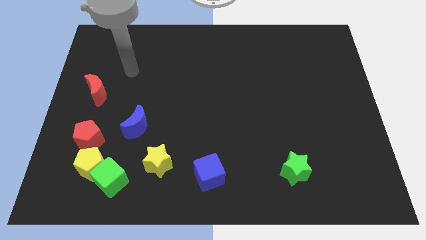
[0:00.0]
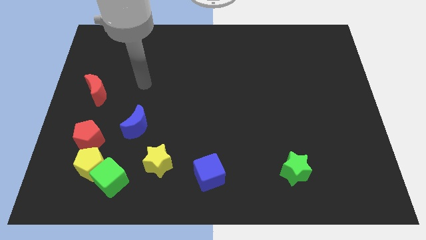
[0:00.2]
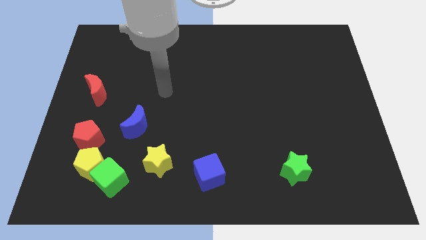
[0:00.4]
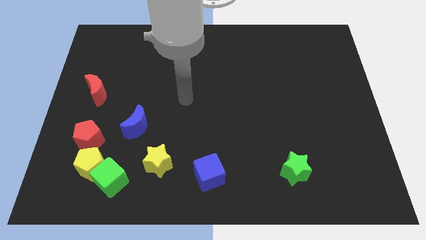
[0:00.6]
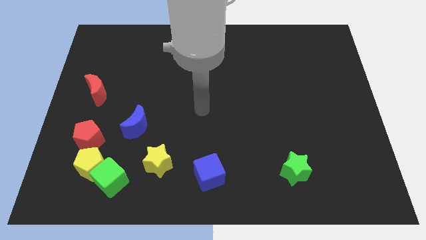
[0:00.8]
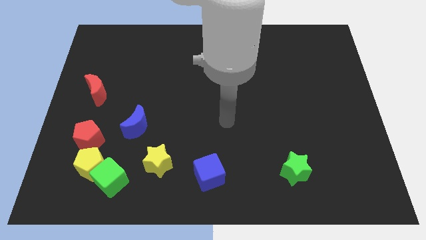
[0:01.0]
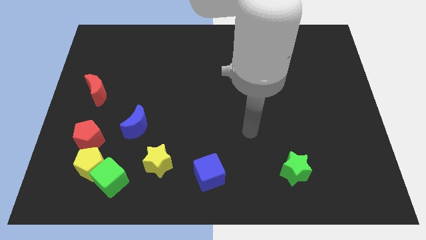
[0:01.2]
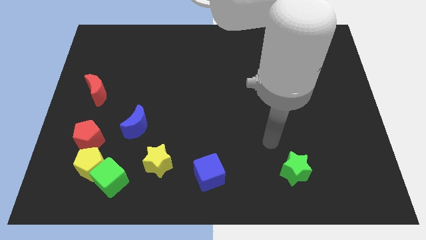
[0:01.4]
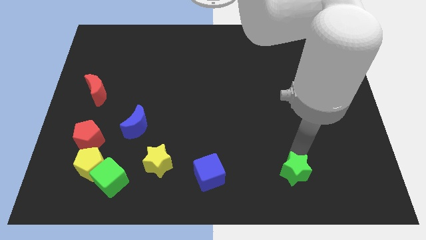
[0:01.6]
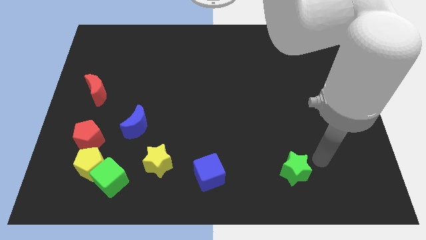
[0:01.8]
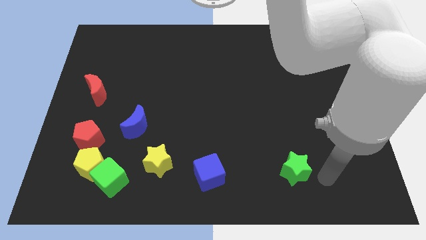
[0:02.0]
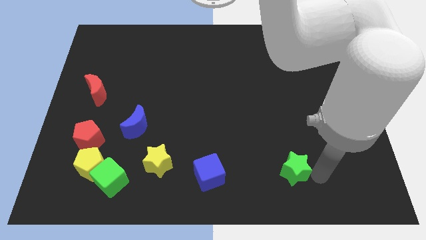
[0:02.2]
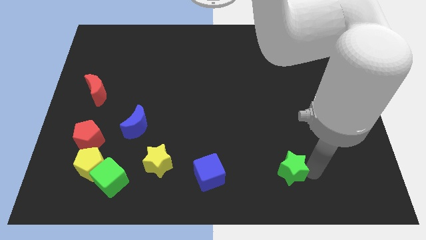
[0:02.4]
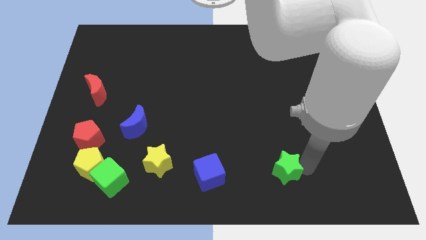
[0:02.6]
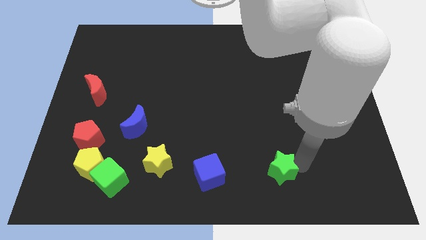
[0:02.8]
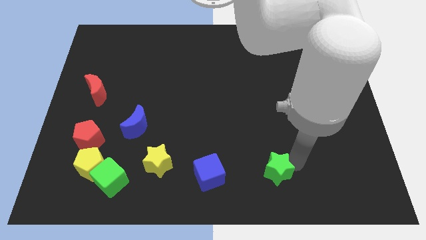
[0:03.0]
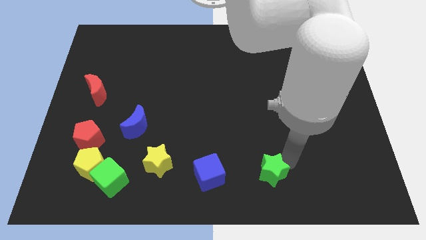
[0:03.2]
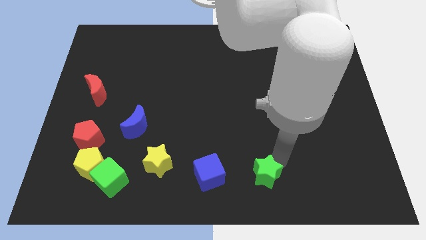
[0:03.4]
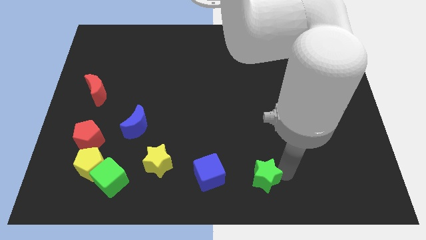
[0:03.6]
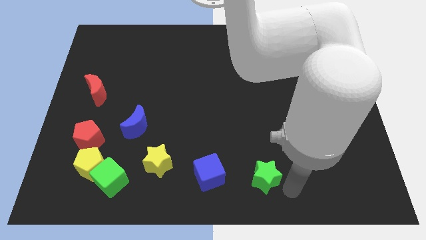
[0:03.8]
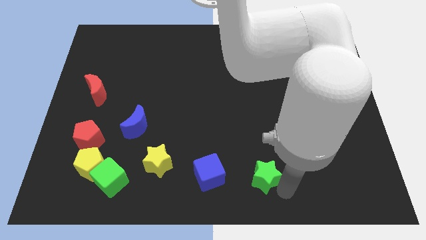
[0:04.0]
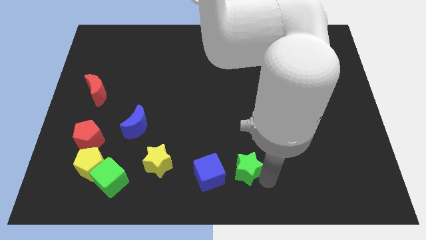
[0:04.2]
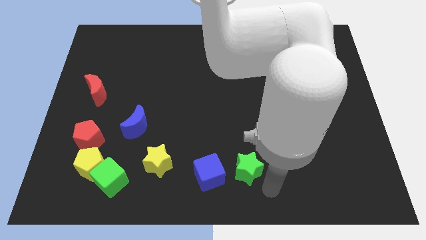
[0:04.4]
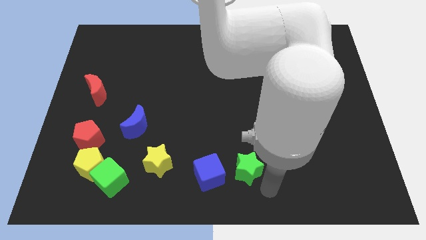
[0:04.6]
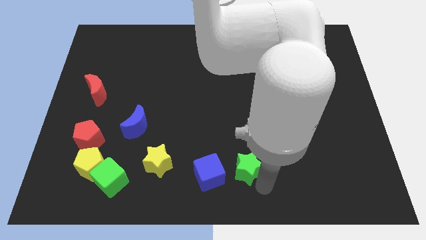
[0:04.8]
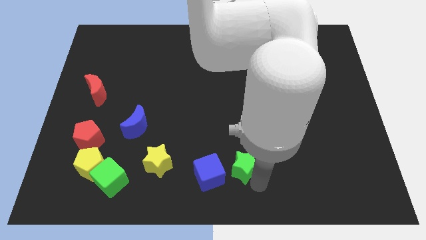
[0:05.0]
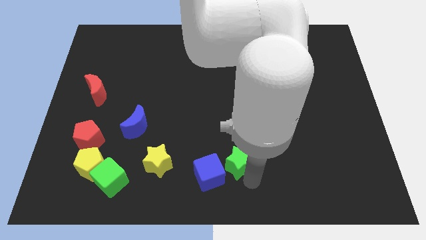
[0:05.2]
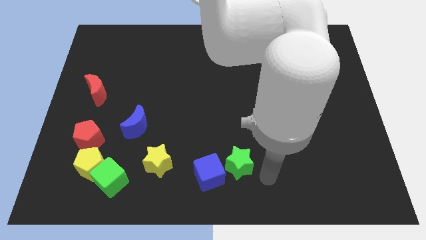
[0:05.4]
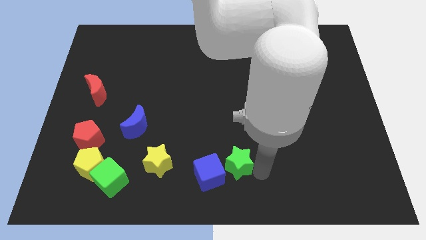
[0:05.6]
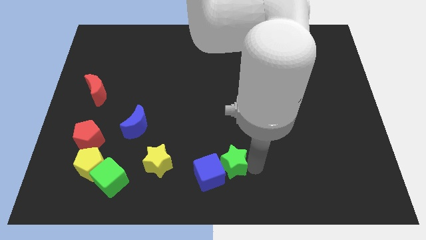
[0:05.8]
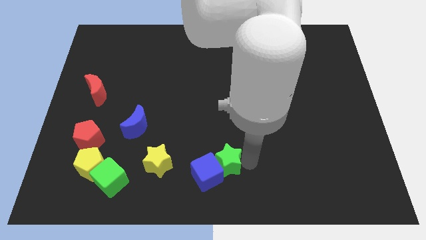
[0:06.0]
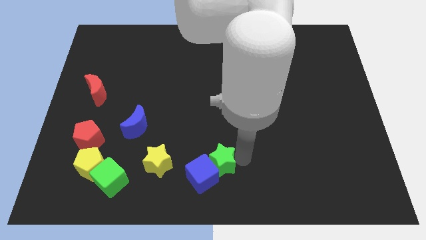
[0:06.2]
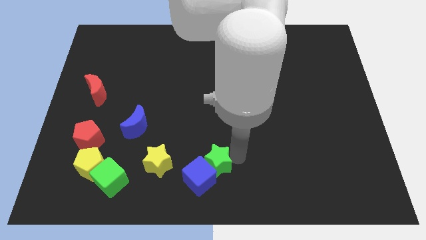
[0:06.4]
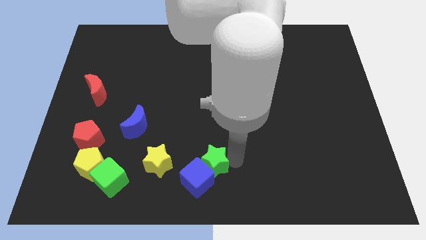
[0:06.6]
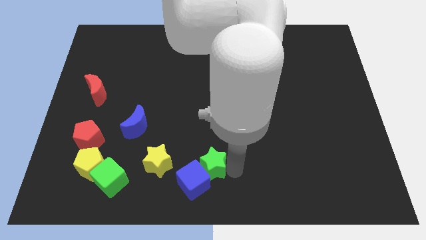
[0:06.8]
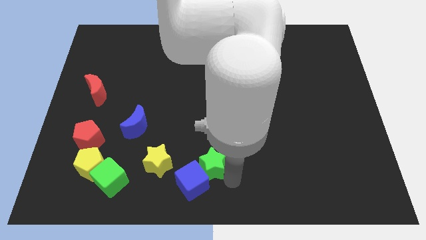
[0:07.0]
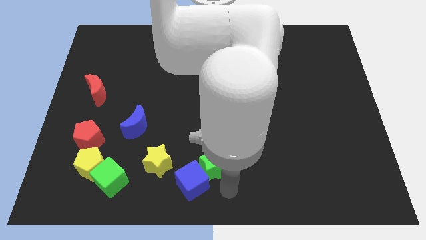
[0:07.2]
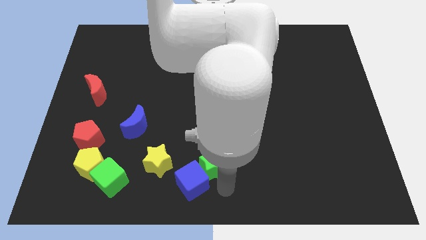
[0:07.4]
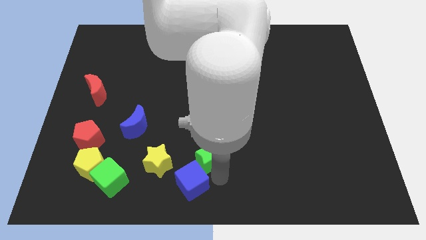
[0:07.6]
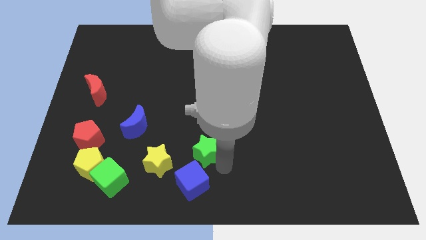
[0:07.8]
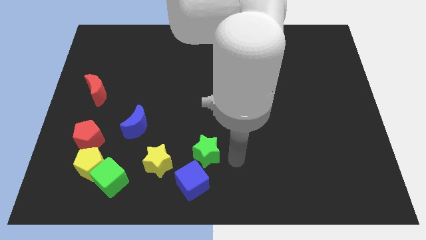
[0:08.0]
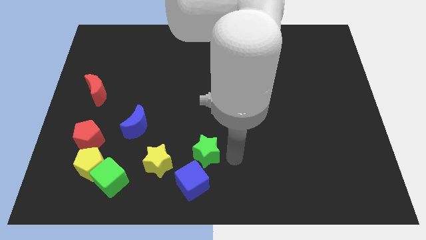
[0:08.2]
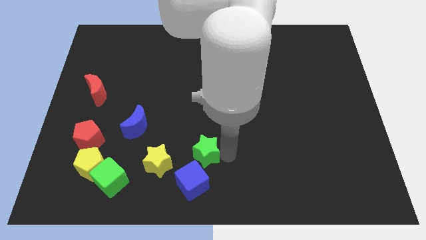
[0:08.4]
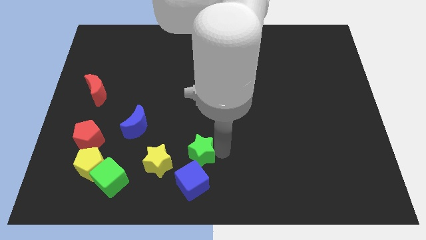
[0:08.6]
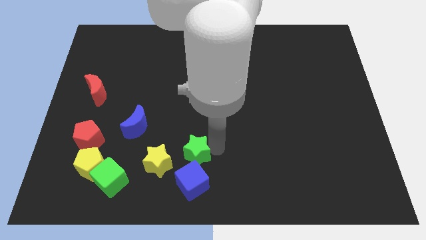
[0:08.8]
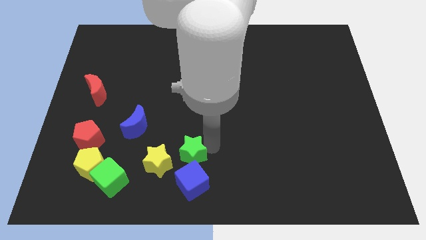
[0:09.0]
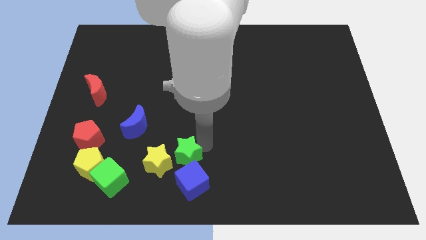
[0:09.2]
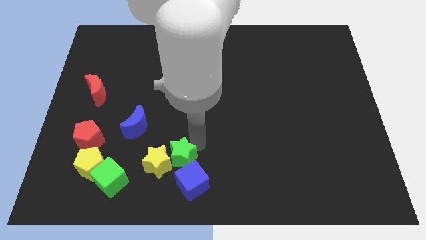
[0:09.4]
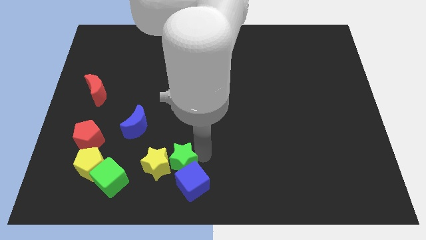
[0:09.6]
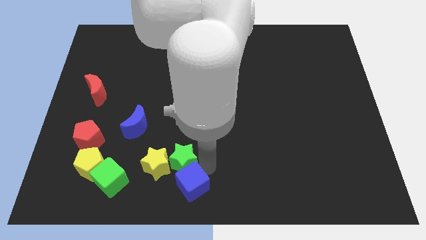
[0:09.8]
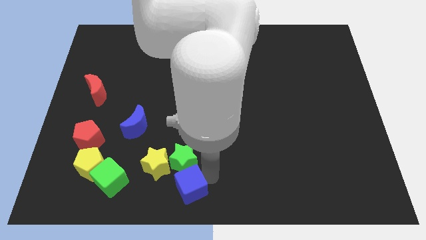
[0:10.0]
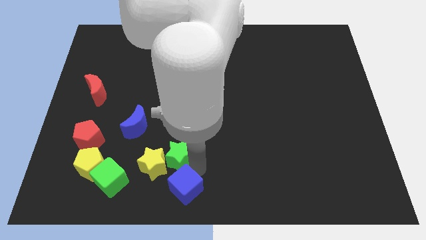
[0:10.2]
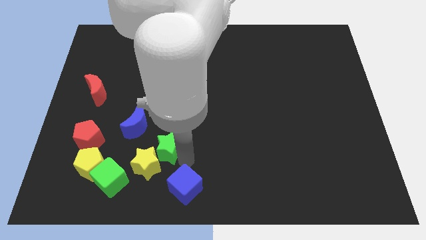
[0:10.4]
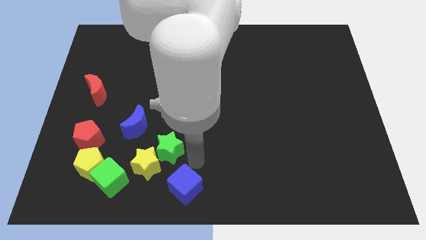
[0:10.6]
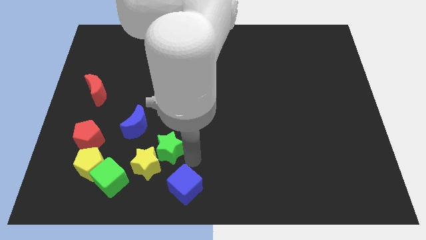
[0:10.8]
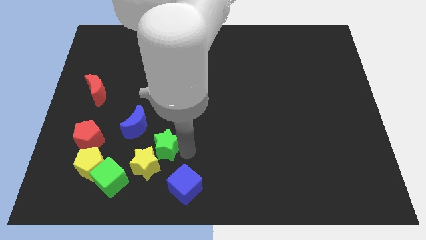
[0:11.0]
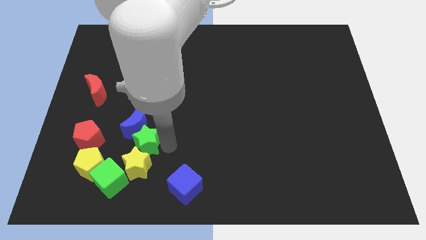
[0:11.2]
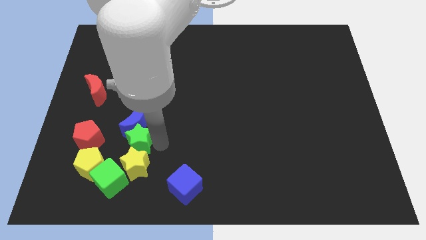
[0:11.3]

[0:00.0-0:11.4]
push the green star to the top left side of the yellow star

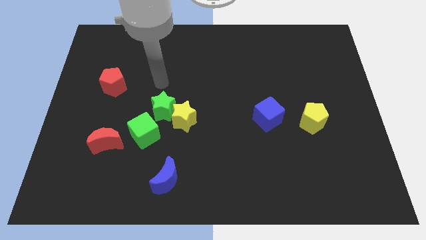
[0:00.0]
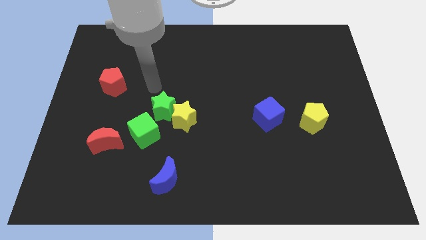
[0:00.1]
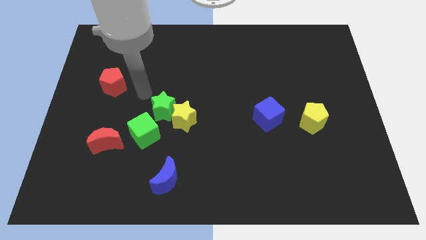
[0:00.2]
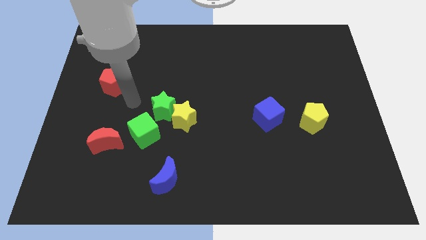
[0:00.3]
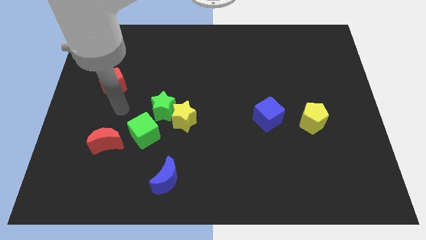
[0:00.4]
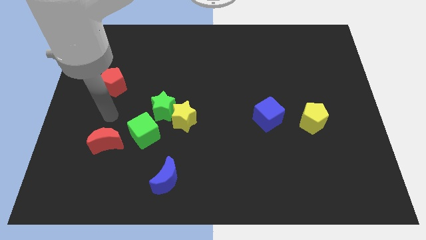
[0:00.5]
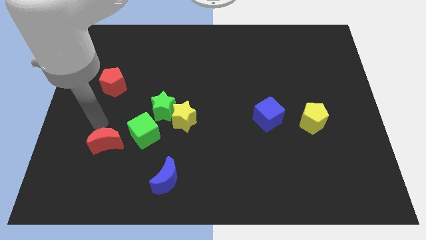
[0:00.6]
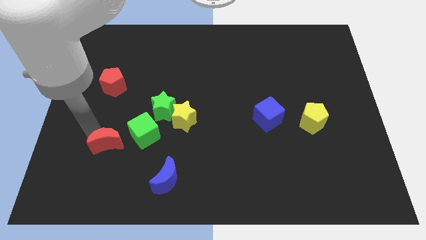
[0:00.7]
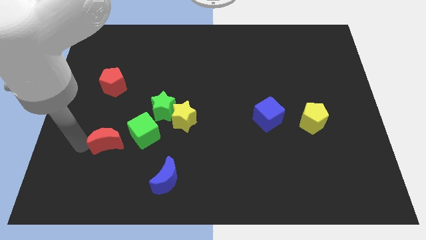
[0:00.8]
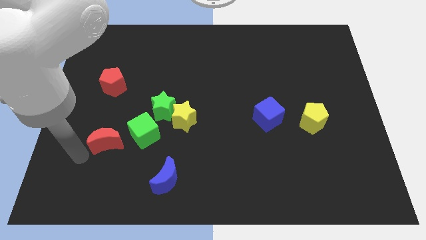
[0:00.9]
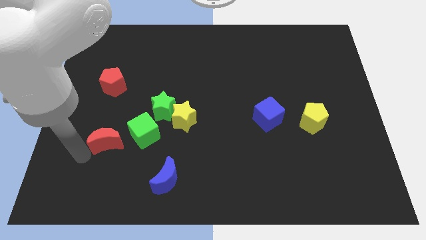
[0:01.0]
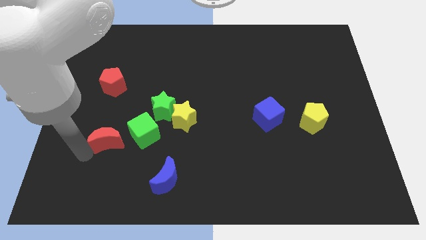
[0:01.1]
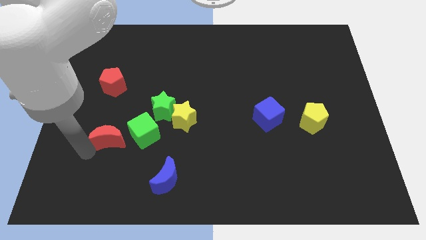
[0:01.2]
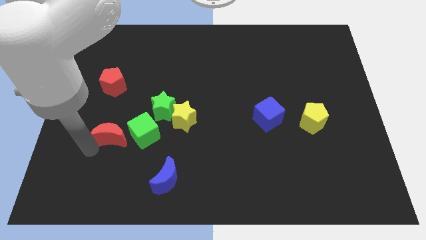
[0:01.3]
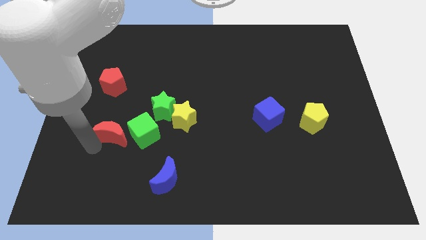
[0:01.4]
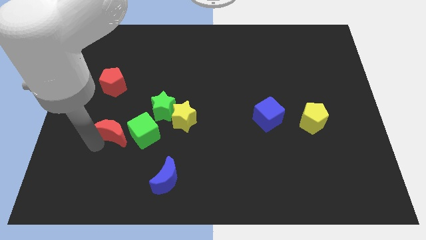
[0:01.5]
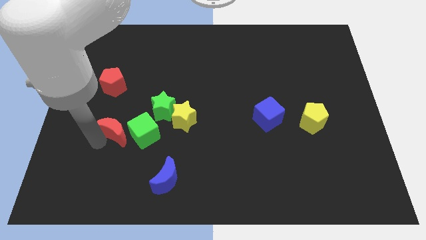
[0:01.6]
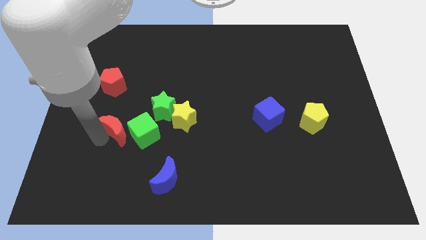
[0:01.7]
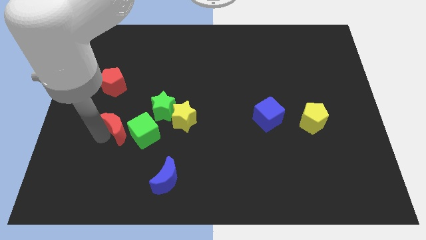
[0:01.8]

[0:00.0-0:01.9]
move the red moon to the left of the yellow star
